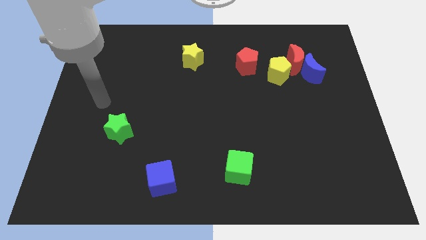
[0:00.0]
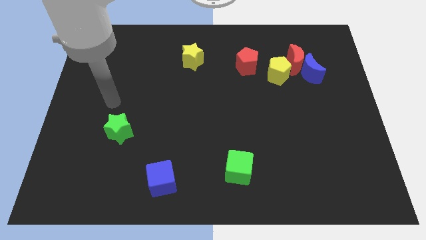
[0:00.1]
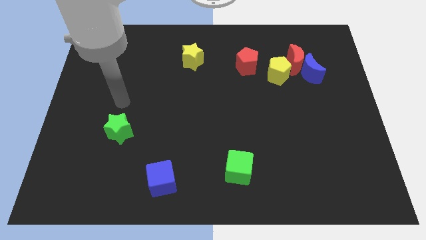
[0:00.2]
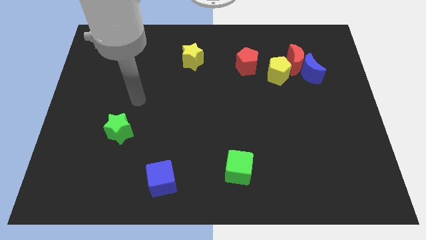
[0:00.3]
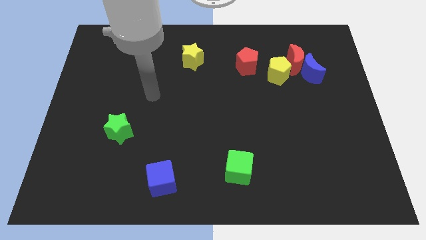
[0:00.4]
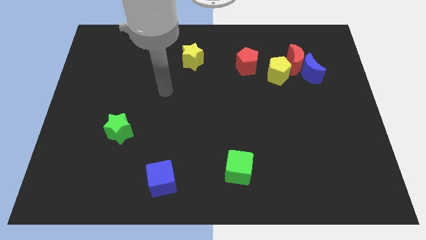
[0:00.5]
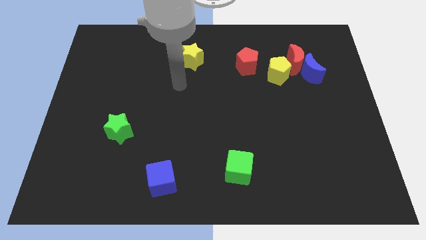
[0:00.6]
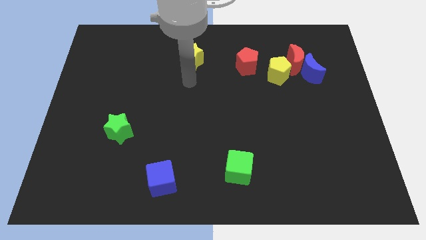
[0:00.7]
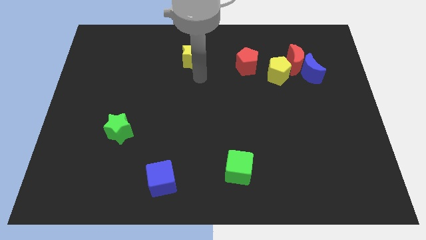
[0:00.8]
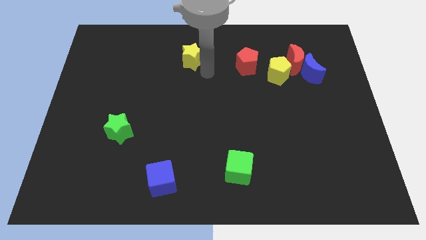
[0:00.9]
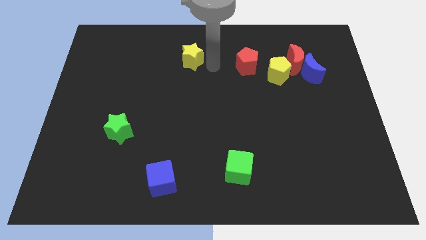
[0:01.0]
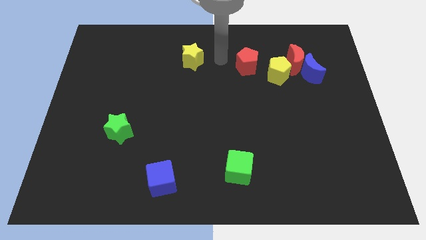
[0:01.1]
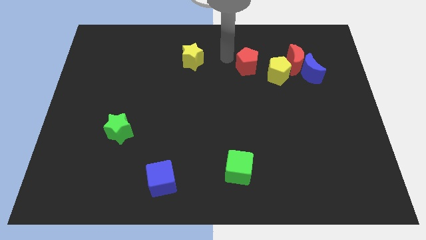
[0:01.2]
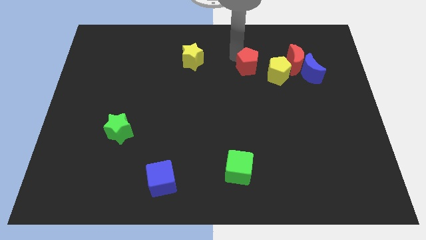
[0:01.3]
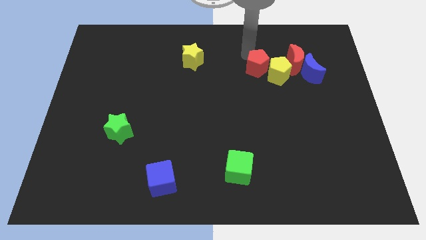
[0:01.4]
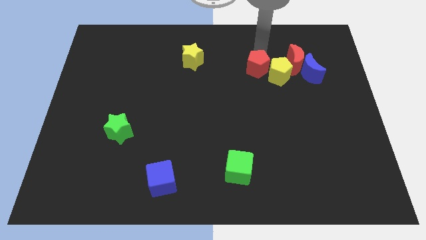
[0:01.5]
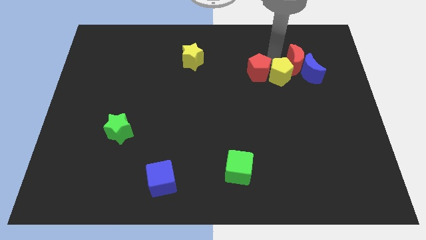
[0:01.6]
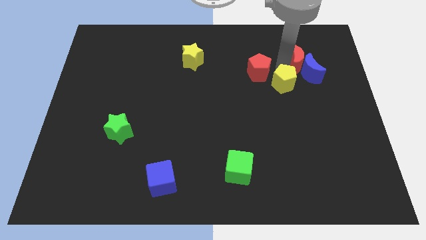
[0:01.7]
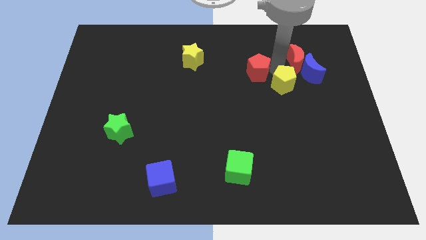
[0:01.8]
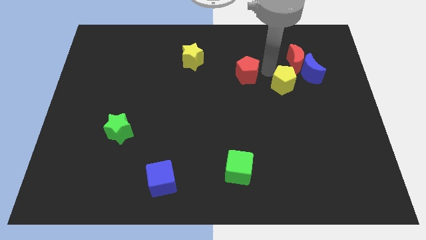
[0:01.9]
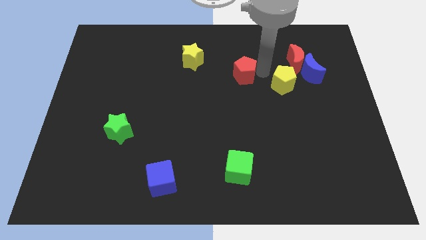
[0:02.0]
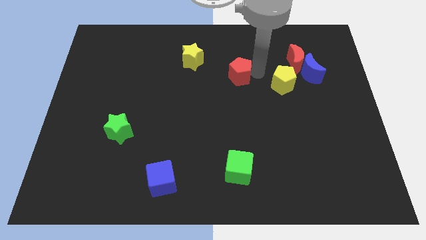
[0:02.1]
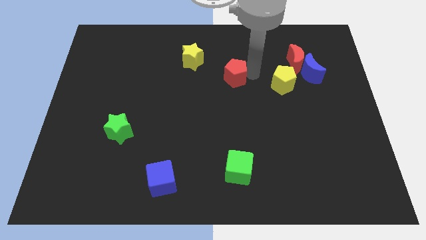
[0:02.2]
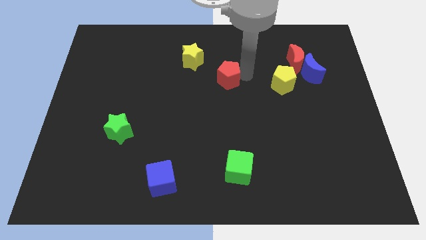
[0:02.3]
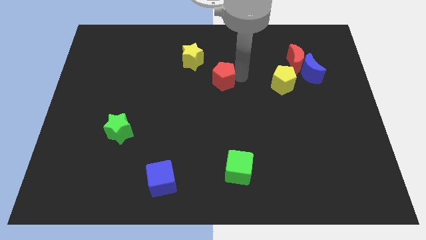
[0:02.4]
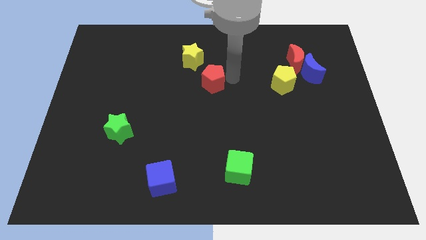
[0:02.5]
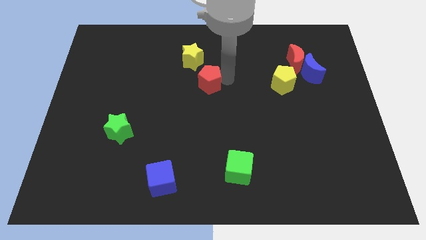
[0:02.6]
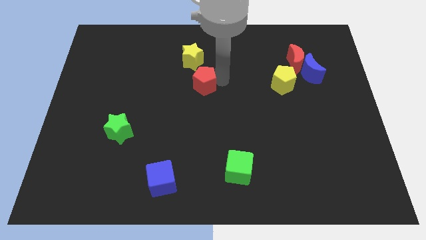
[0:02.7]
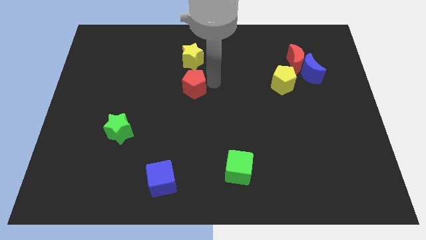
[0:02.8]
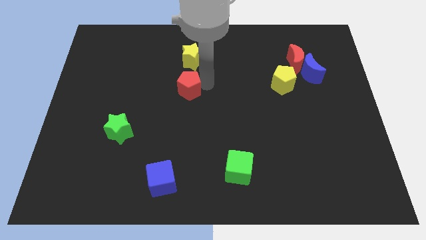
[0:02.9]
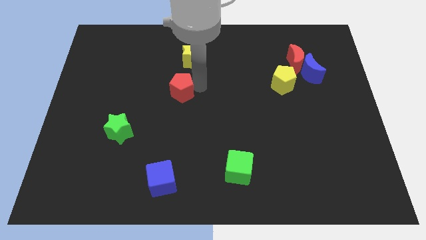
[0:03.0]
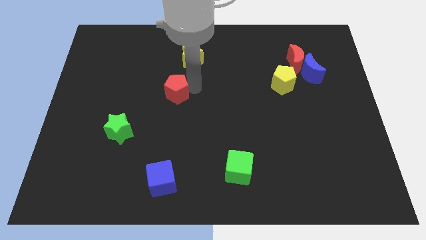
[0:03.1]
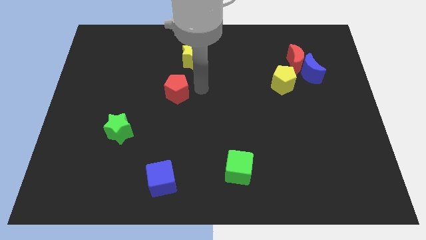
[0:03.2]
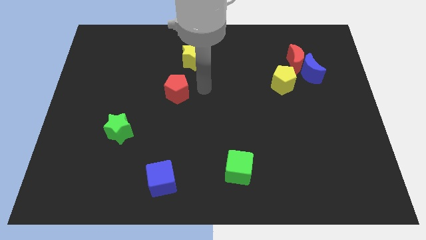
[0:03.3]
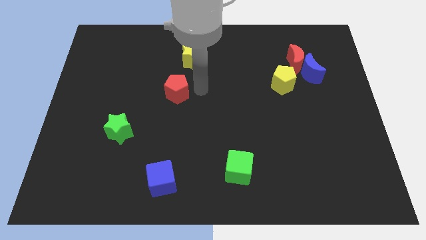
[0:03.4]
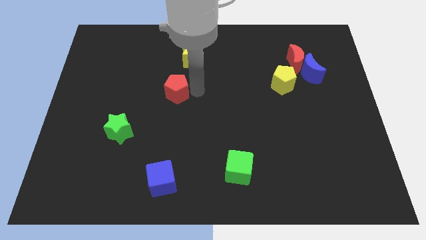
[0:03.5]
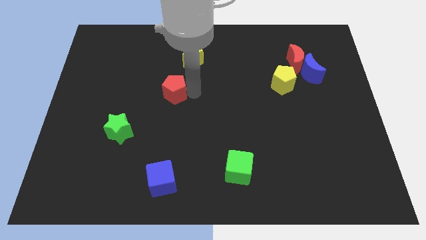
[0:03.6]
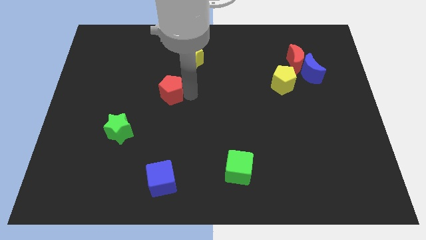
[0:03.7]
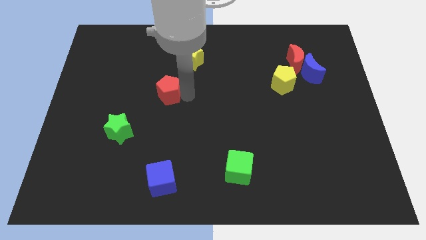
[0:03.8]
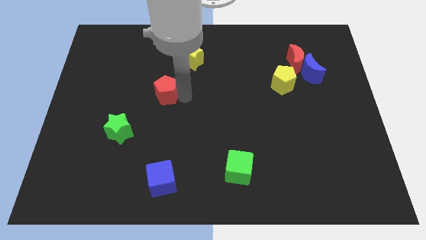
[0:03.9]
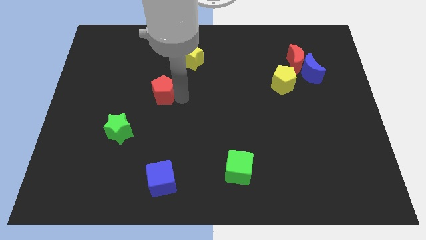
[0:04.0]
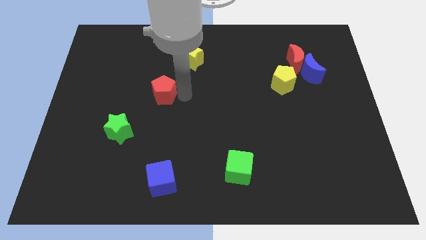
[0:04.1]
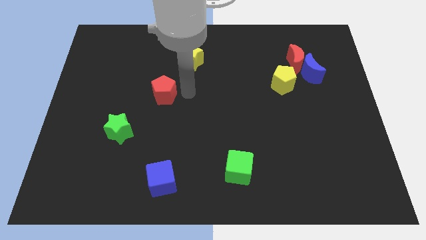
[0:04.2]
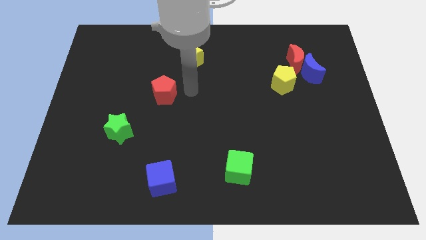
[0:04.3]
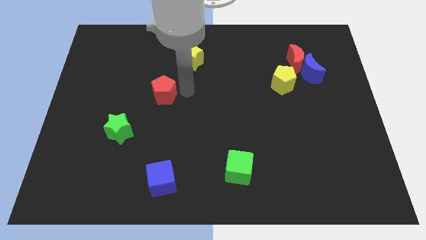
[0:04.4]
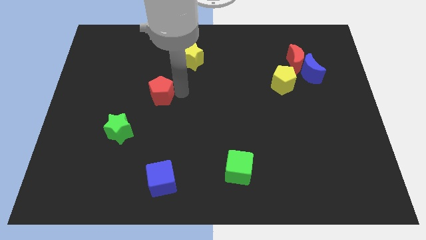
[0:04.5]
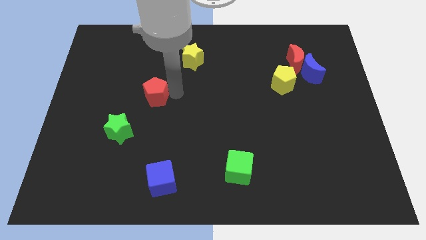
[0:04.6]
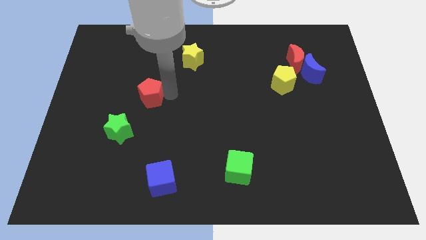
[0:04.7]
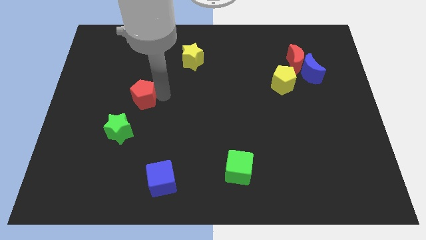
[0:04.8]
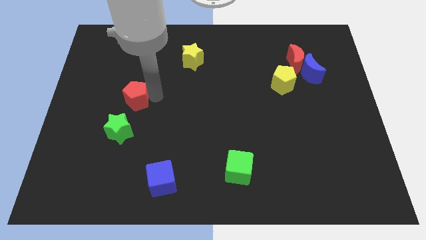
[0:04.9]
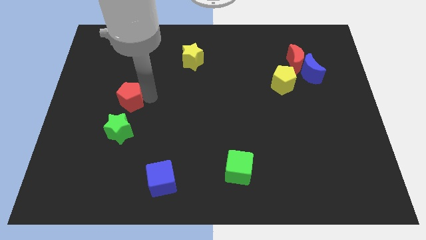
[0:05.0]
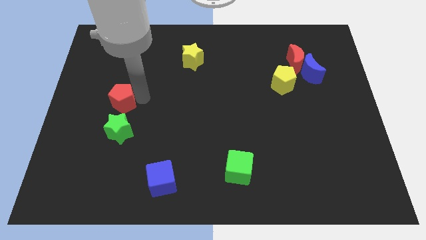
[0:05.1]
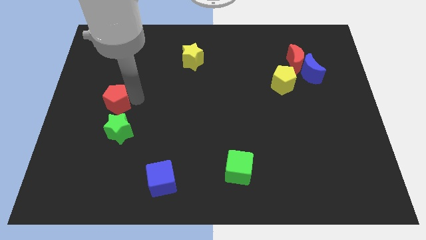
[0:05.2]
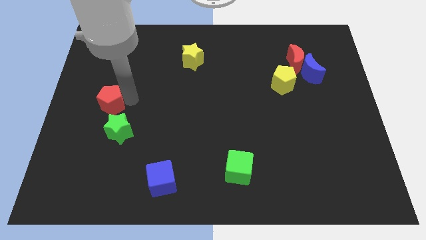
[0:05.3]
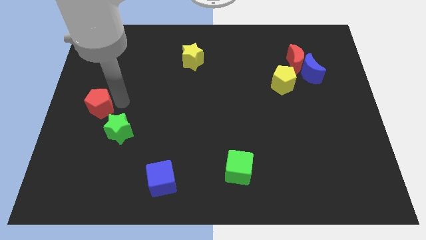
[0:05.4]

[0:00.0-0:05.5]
push the red pentagon to the left side

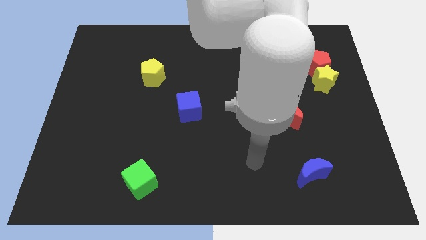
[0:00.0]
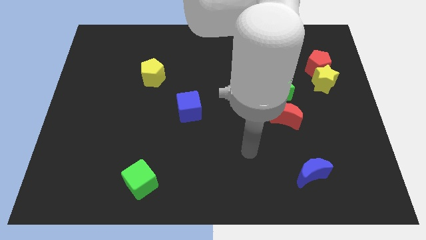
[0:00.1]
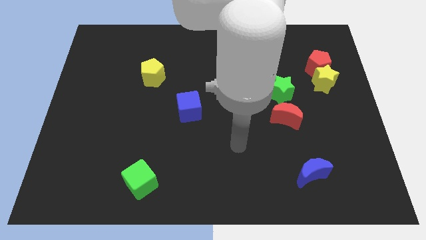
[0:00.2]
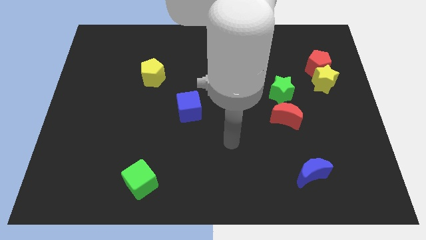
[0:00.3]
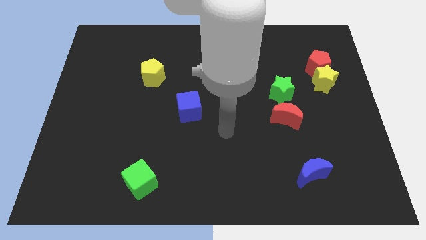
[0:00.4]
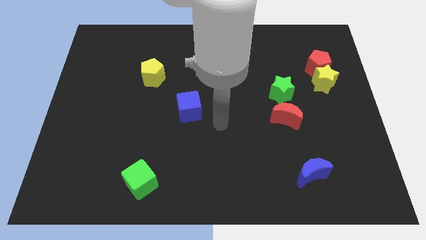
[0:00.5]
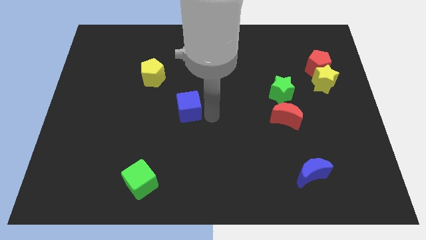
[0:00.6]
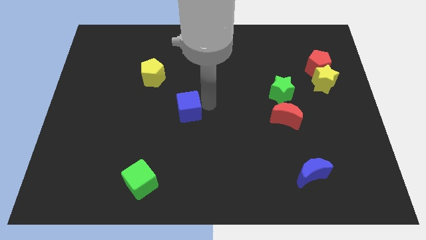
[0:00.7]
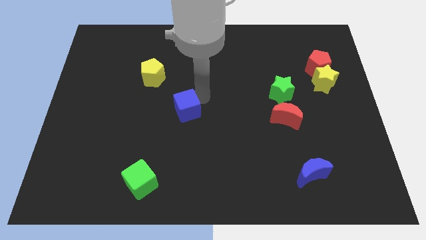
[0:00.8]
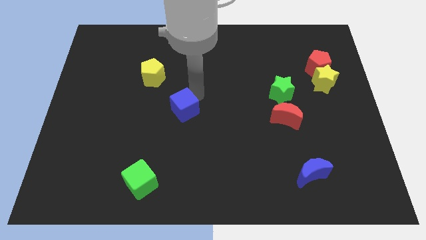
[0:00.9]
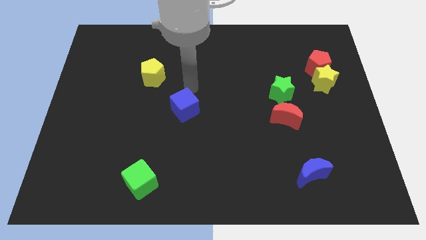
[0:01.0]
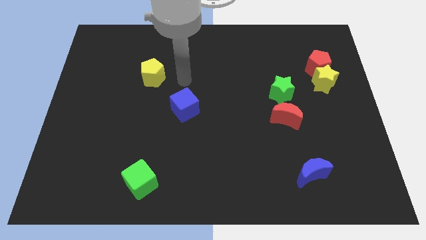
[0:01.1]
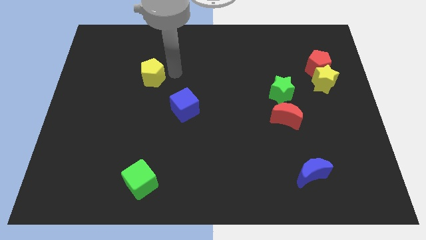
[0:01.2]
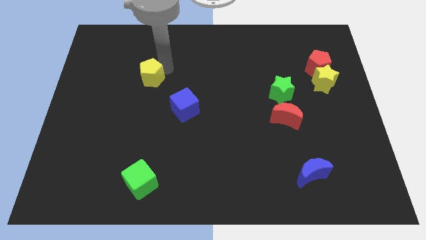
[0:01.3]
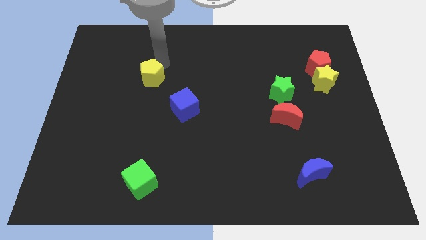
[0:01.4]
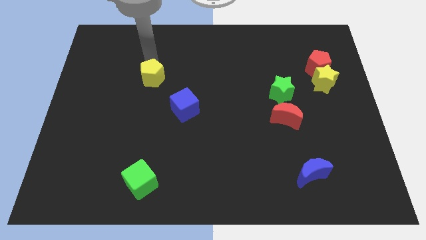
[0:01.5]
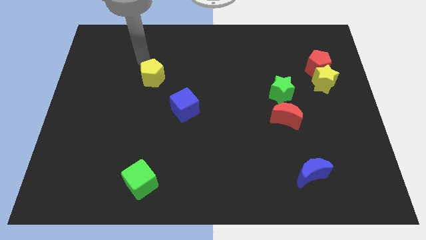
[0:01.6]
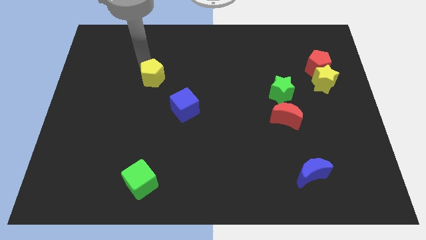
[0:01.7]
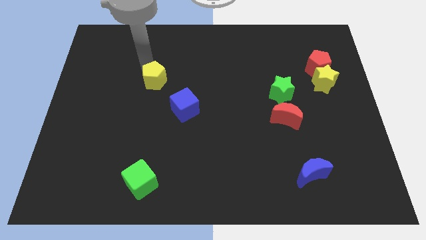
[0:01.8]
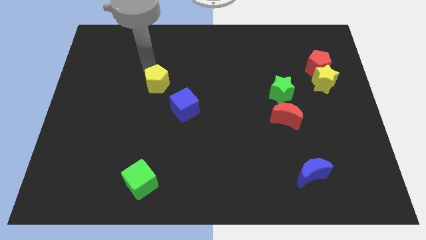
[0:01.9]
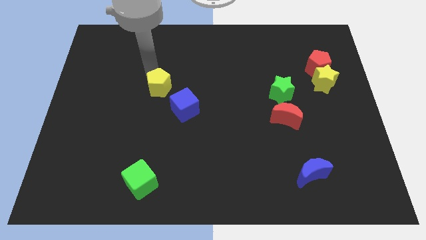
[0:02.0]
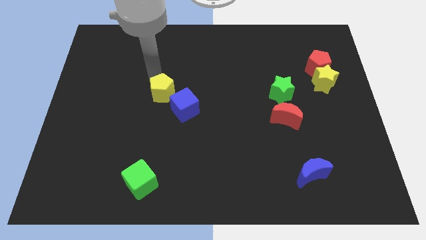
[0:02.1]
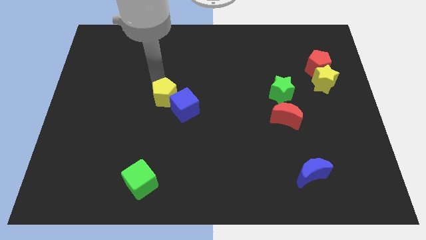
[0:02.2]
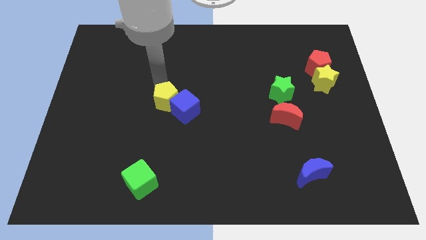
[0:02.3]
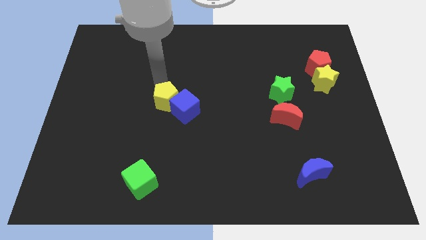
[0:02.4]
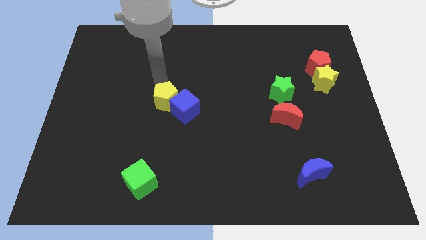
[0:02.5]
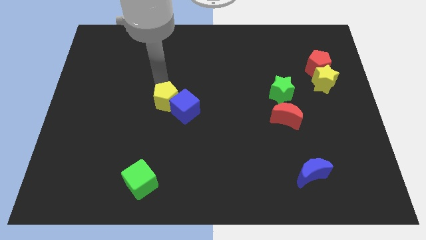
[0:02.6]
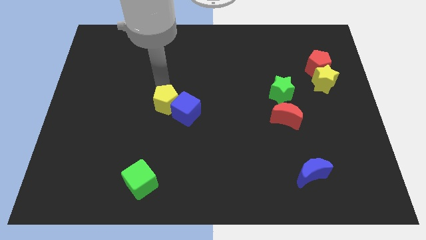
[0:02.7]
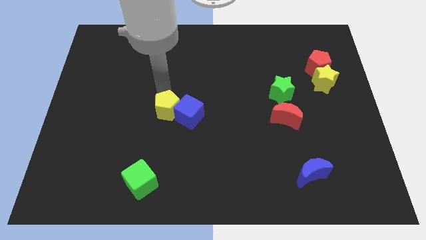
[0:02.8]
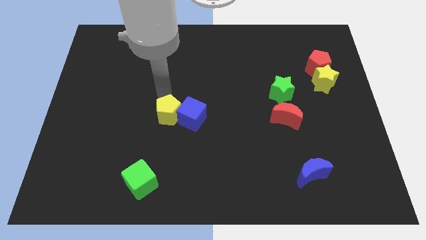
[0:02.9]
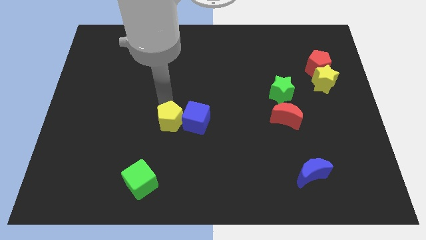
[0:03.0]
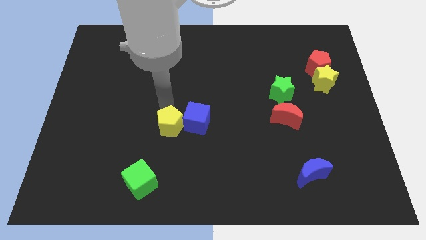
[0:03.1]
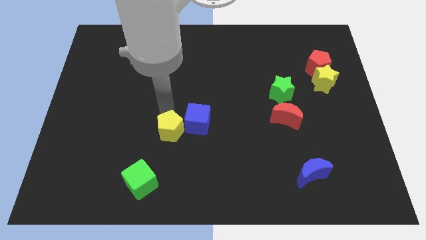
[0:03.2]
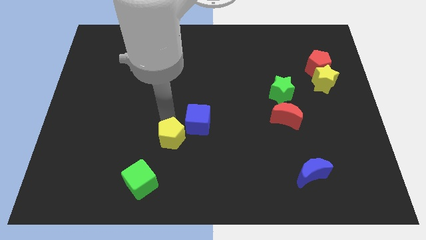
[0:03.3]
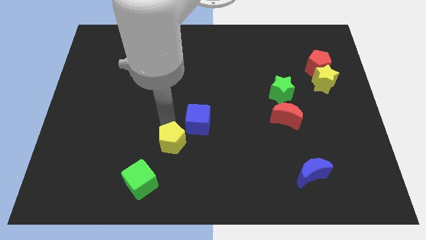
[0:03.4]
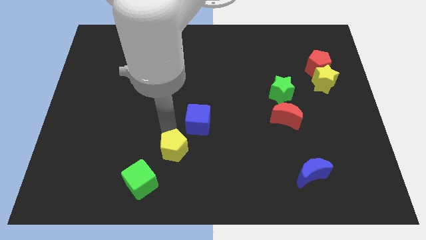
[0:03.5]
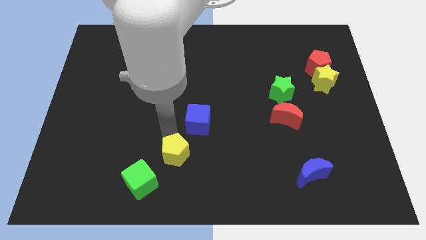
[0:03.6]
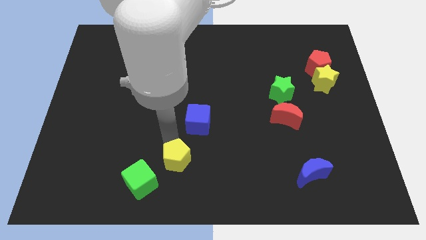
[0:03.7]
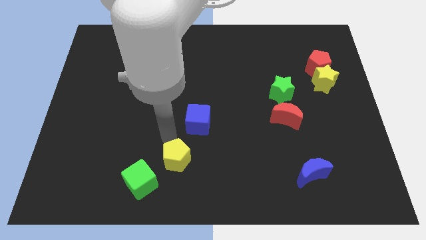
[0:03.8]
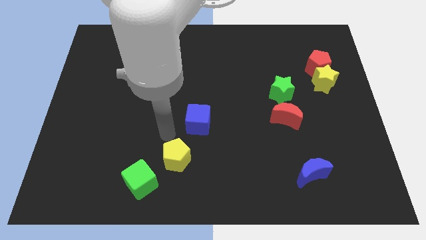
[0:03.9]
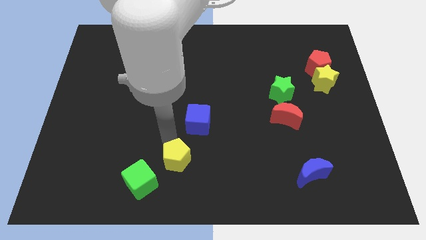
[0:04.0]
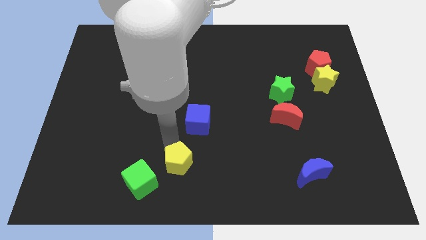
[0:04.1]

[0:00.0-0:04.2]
put the yellow pentagon to the bottom
